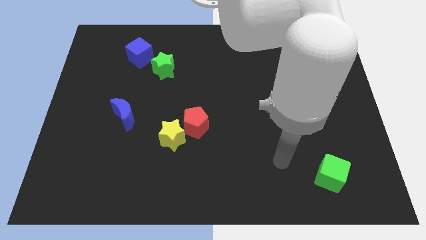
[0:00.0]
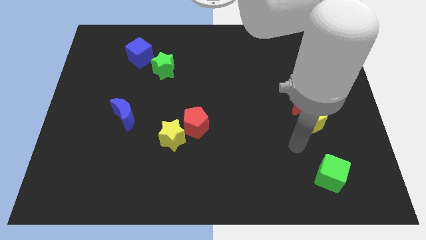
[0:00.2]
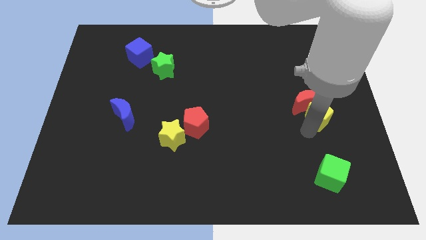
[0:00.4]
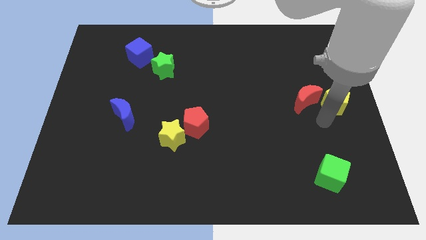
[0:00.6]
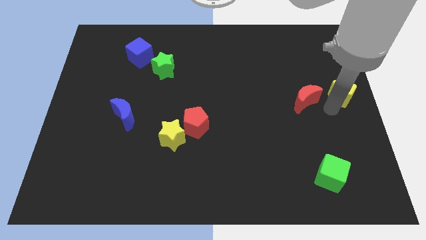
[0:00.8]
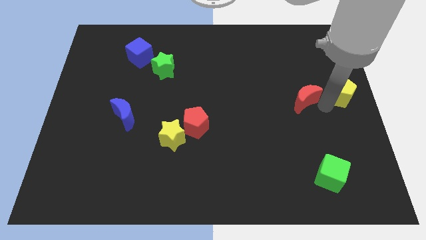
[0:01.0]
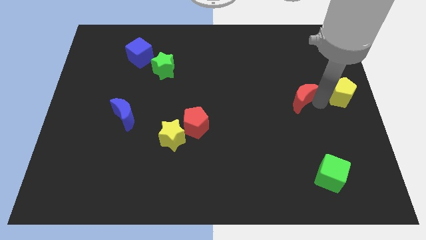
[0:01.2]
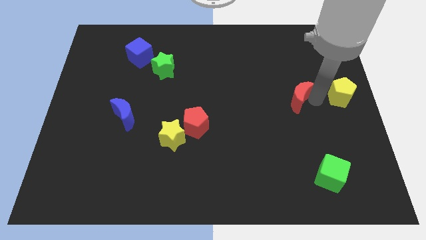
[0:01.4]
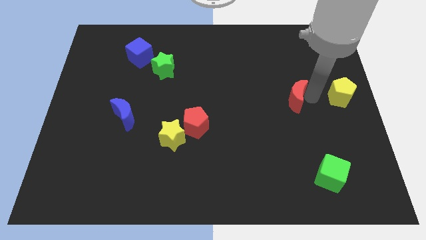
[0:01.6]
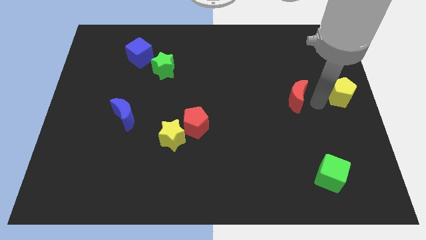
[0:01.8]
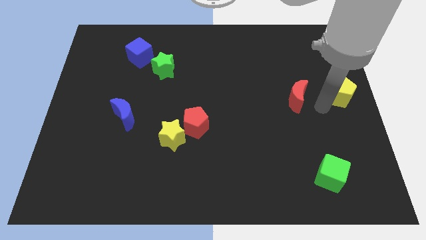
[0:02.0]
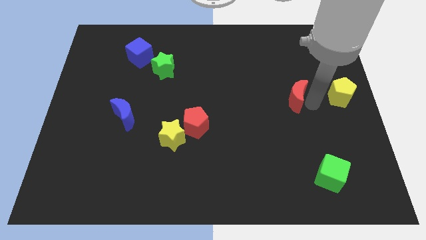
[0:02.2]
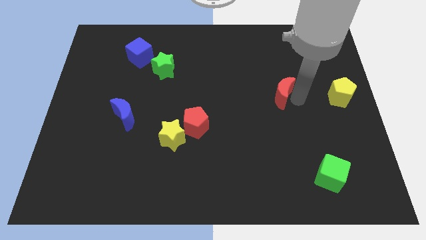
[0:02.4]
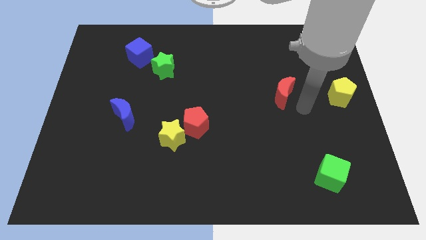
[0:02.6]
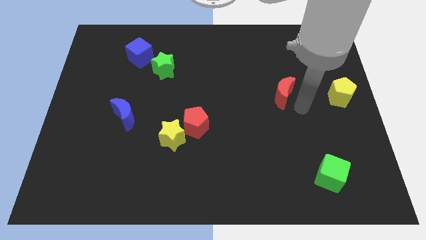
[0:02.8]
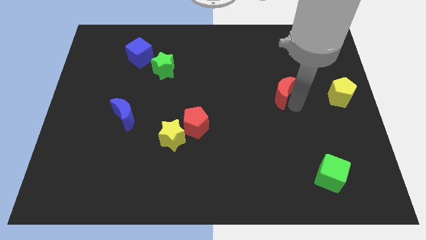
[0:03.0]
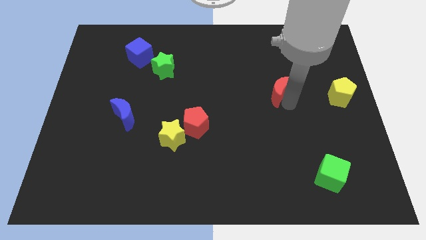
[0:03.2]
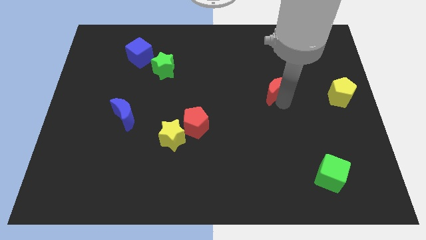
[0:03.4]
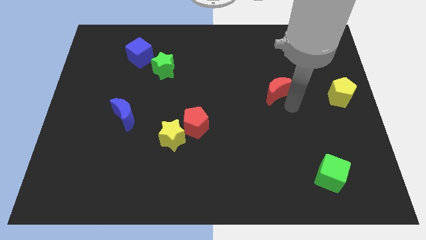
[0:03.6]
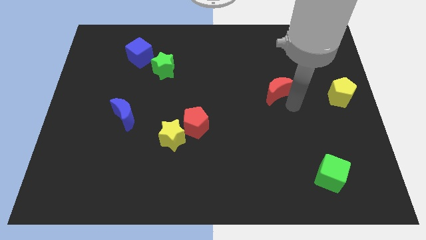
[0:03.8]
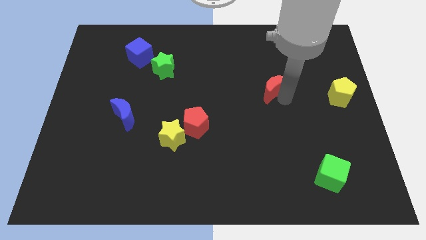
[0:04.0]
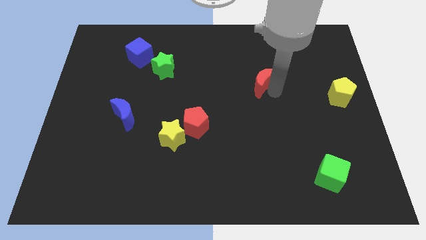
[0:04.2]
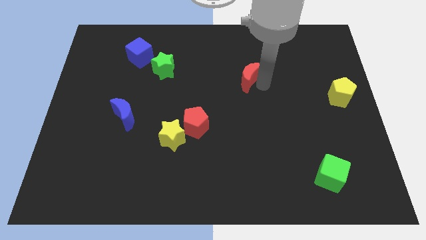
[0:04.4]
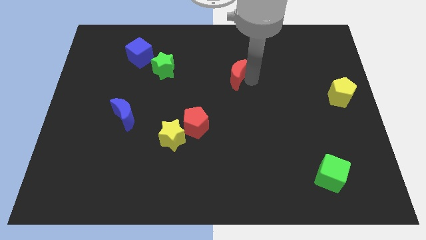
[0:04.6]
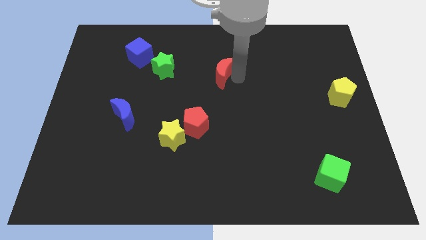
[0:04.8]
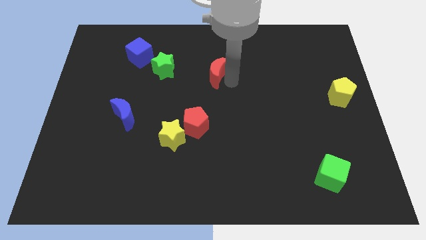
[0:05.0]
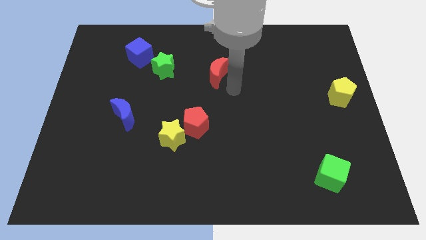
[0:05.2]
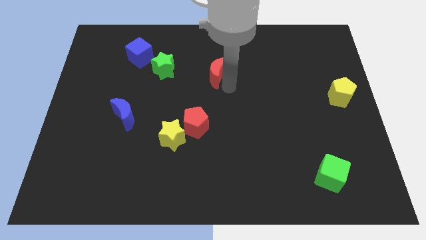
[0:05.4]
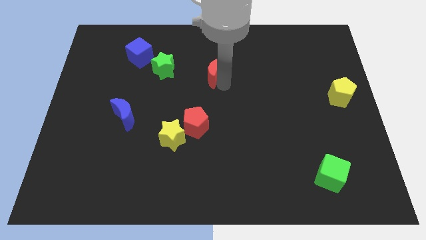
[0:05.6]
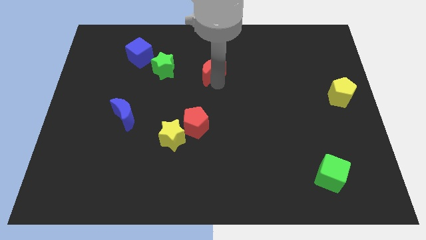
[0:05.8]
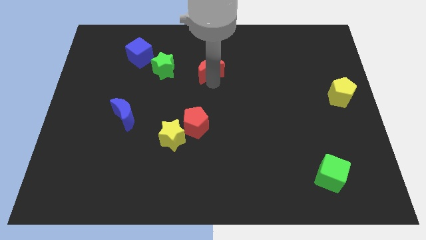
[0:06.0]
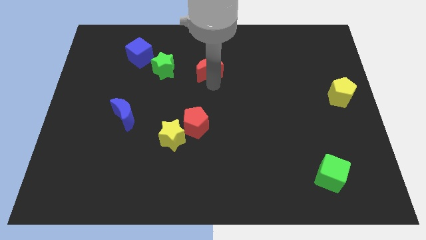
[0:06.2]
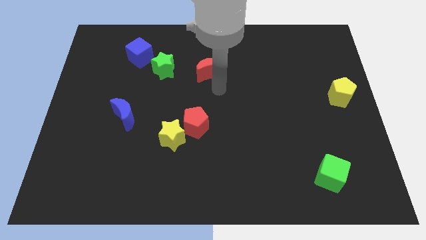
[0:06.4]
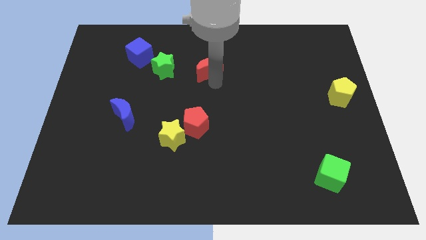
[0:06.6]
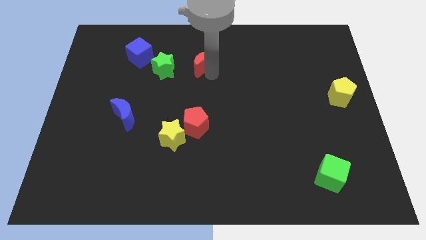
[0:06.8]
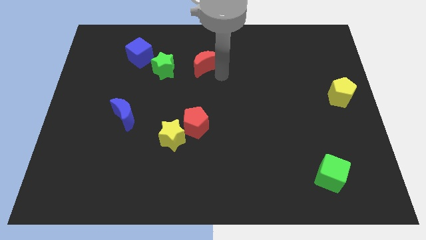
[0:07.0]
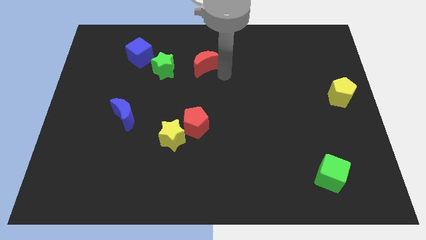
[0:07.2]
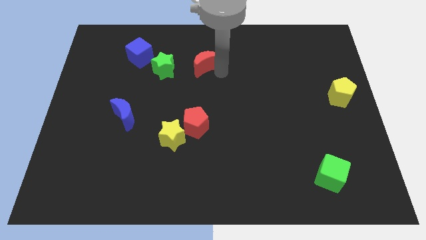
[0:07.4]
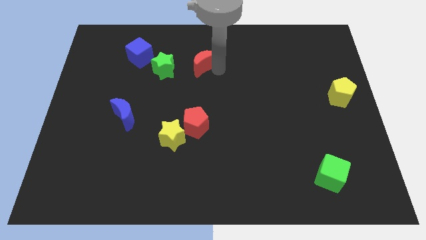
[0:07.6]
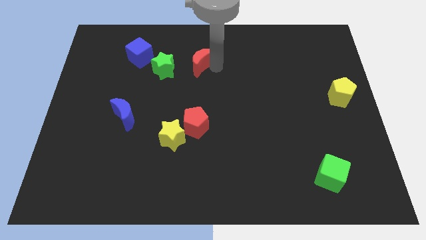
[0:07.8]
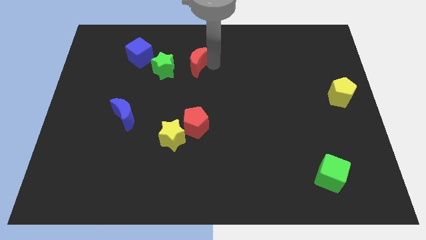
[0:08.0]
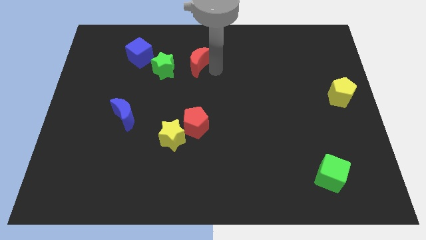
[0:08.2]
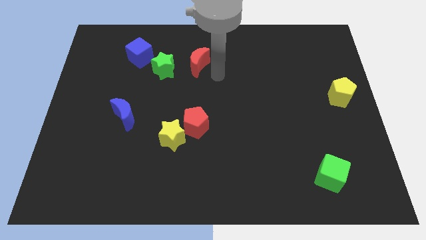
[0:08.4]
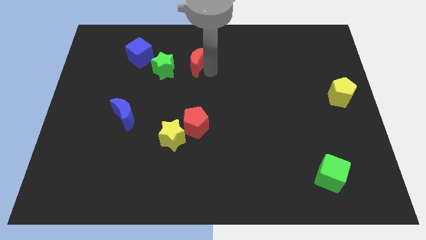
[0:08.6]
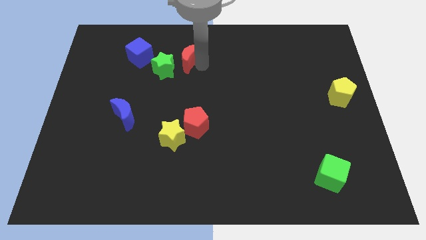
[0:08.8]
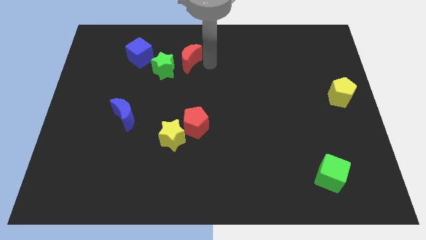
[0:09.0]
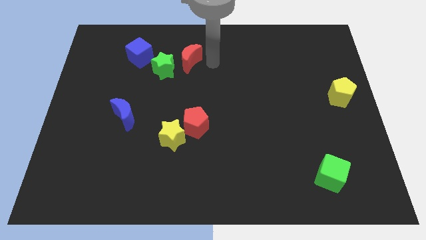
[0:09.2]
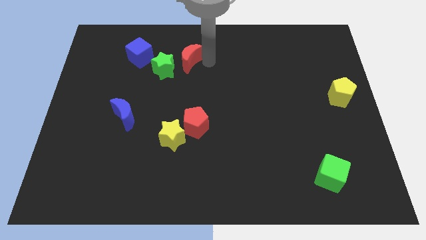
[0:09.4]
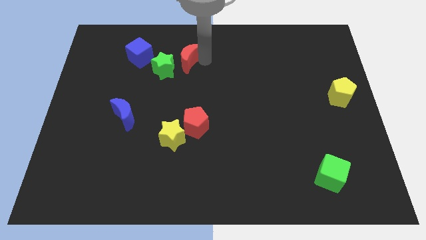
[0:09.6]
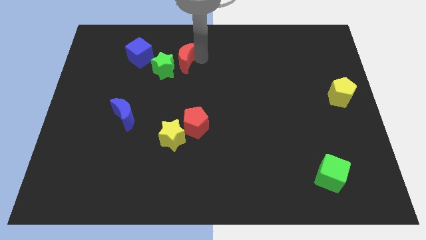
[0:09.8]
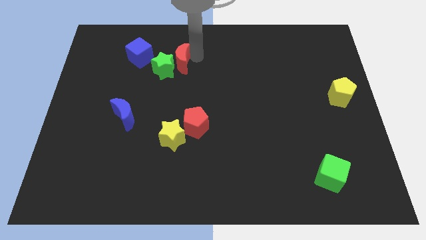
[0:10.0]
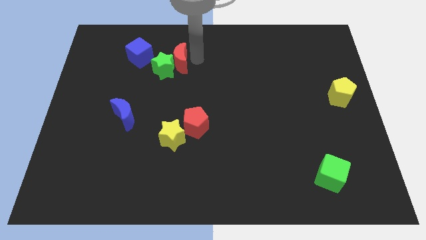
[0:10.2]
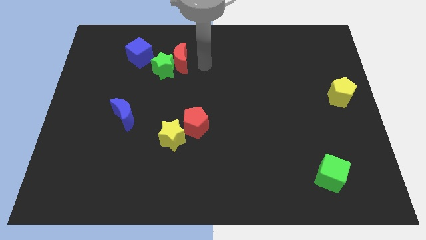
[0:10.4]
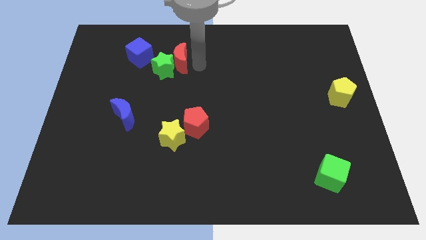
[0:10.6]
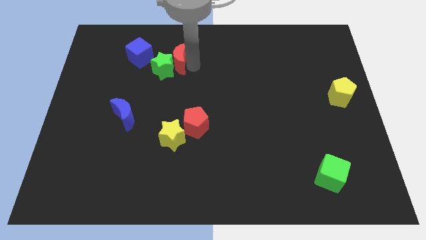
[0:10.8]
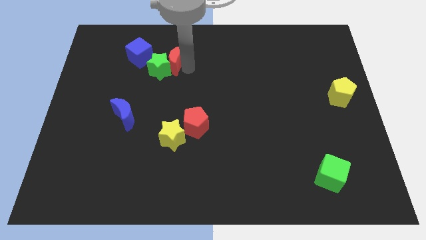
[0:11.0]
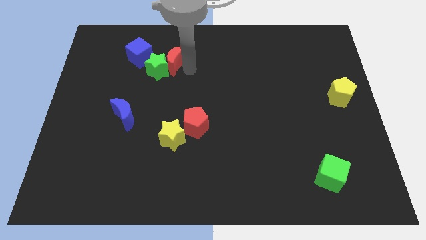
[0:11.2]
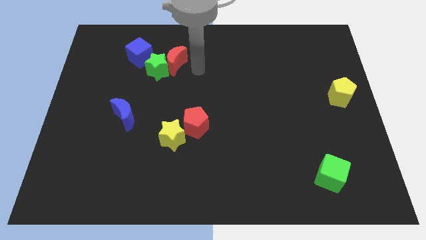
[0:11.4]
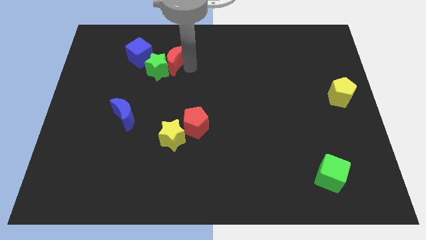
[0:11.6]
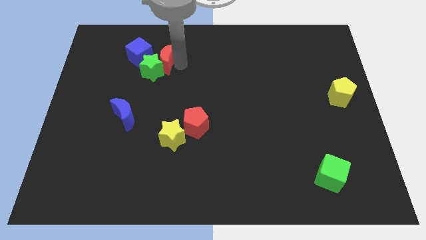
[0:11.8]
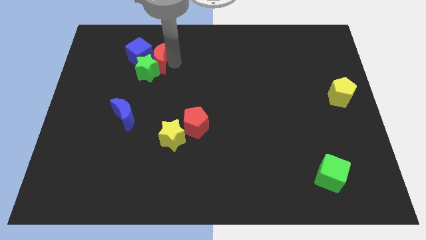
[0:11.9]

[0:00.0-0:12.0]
slide the red moon close to the blue cube

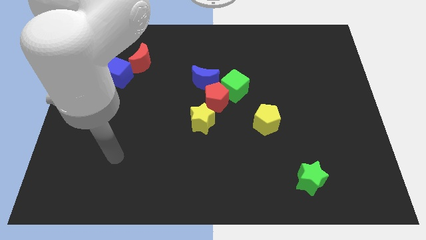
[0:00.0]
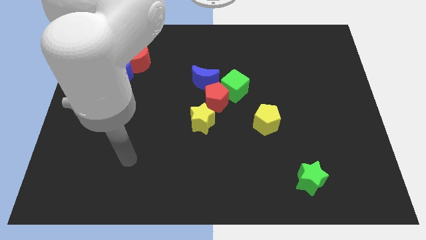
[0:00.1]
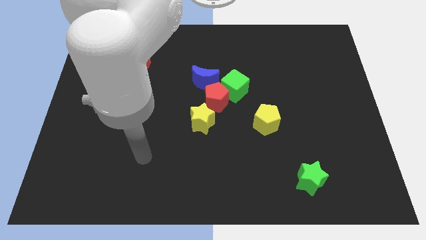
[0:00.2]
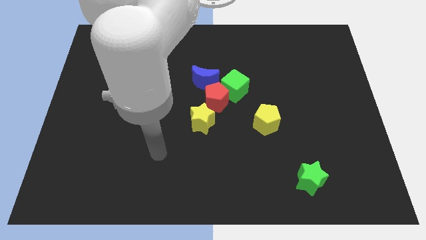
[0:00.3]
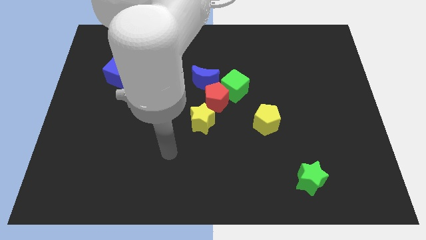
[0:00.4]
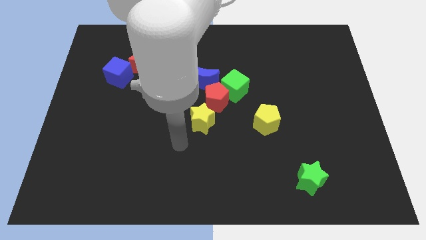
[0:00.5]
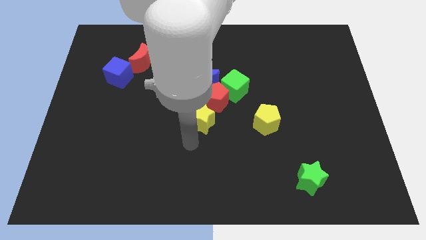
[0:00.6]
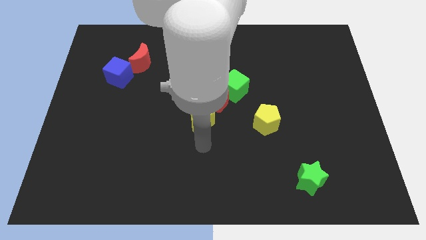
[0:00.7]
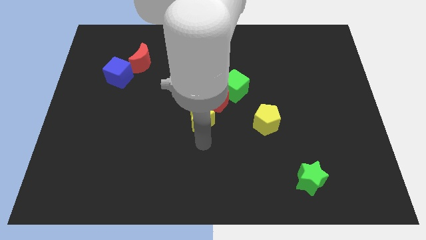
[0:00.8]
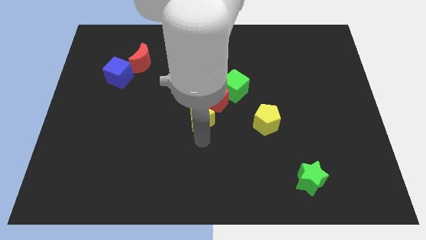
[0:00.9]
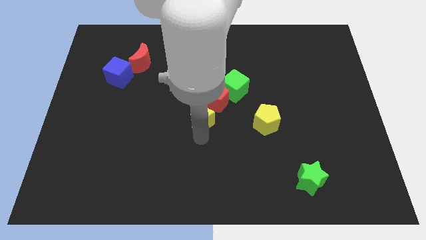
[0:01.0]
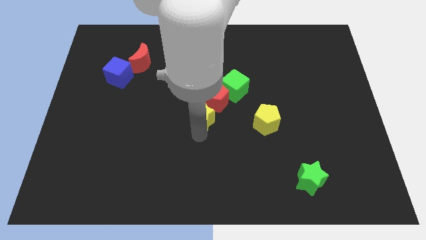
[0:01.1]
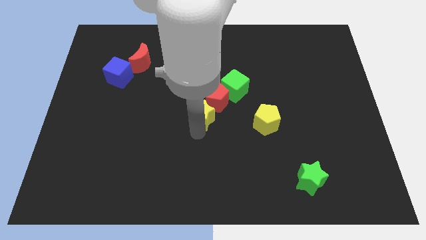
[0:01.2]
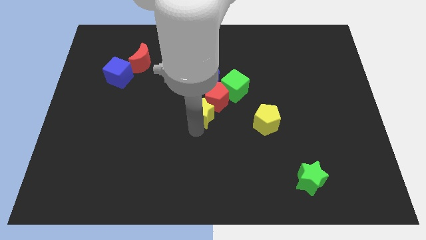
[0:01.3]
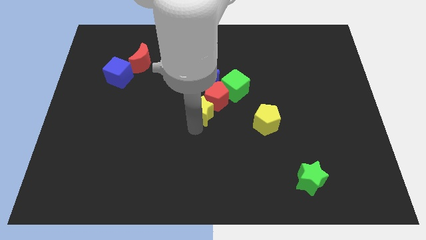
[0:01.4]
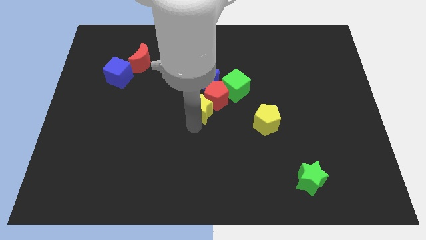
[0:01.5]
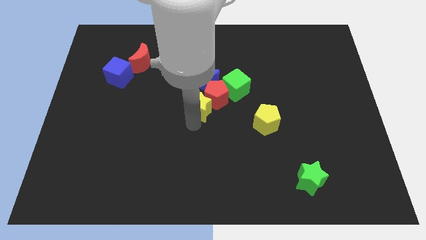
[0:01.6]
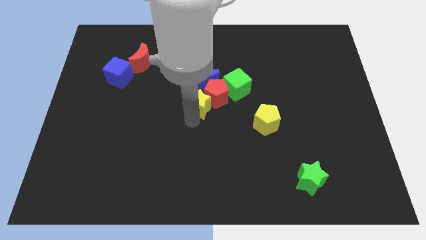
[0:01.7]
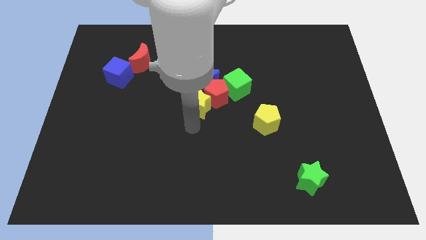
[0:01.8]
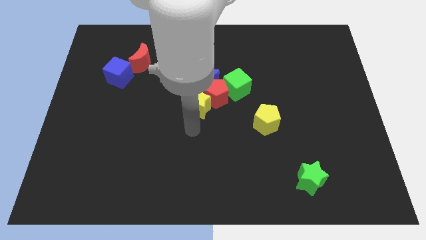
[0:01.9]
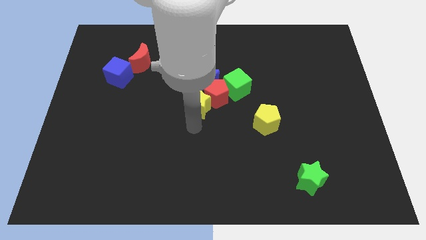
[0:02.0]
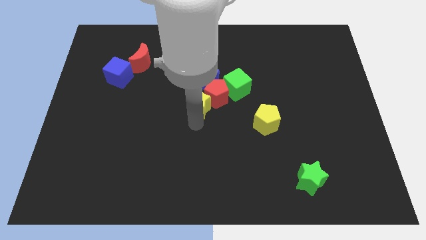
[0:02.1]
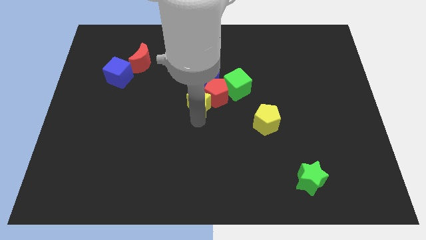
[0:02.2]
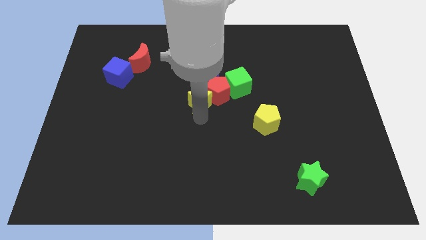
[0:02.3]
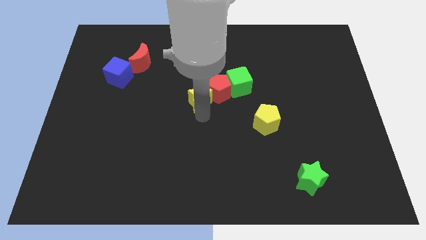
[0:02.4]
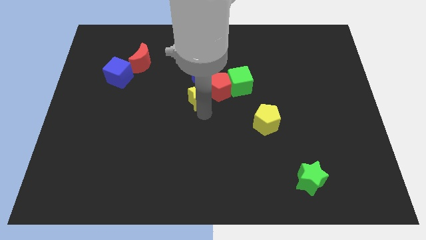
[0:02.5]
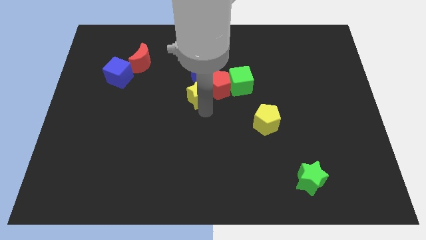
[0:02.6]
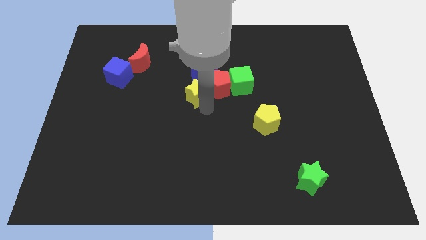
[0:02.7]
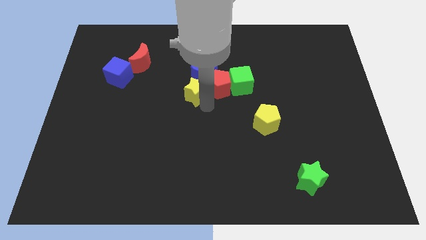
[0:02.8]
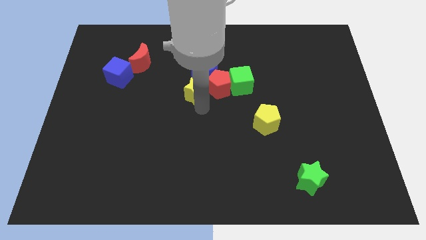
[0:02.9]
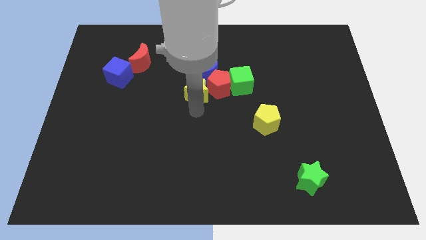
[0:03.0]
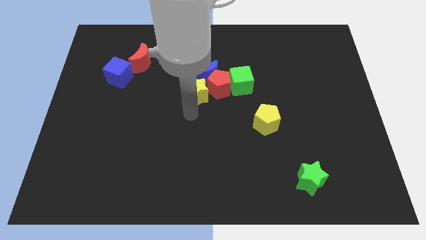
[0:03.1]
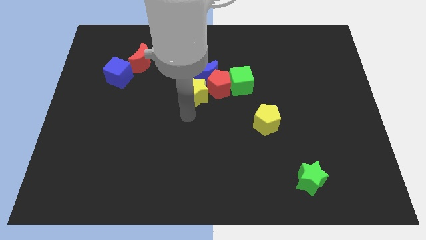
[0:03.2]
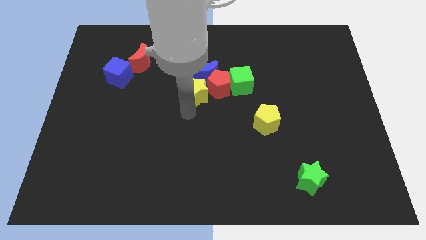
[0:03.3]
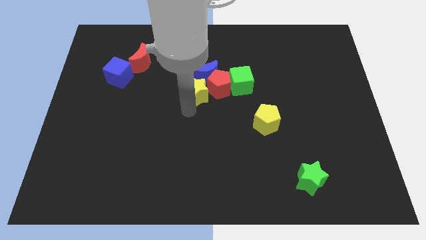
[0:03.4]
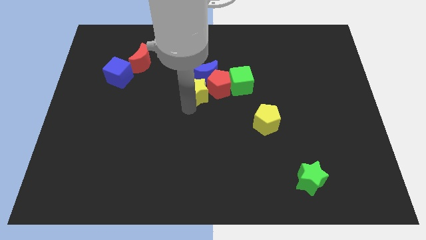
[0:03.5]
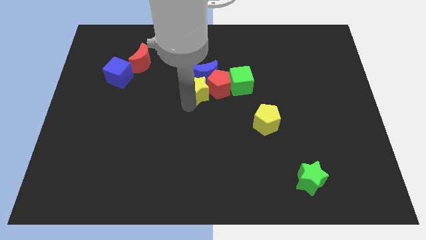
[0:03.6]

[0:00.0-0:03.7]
put the yellow star next to the blue moon
